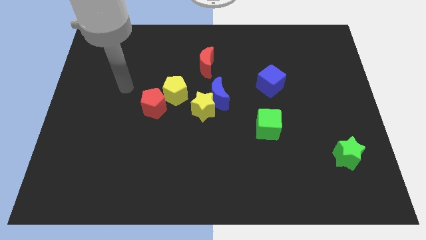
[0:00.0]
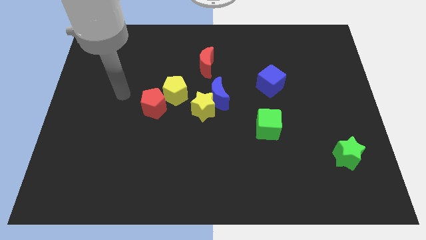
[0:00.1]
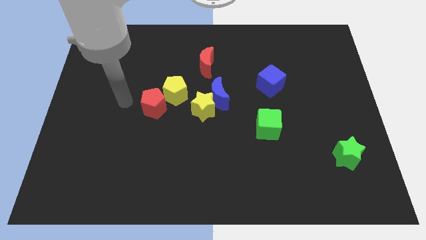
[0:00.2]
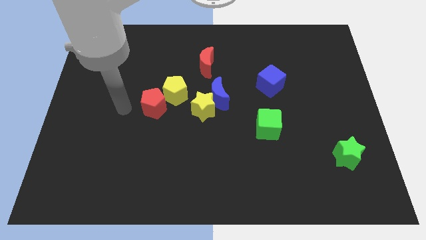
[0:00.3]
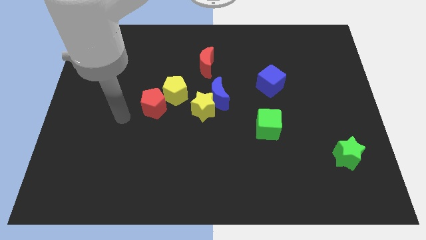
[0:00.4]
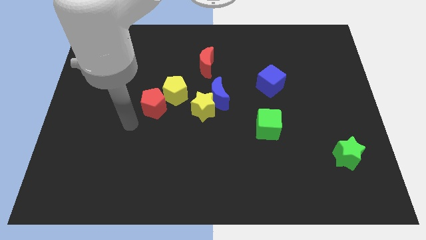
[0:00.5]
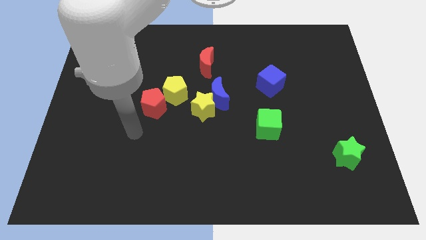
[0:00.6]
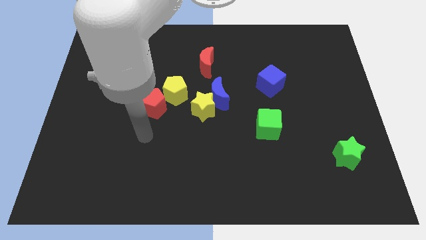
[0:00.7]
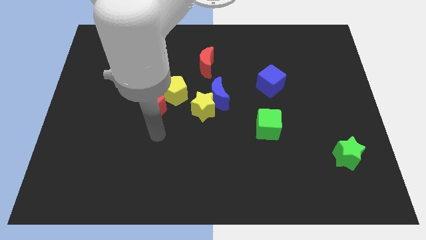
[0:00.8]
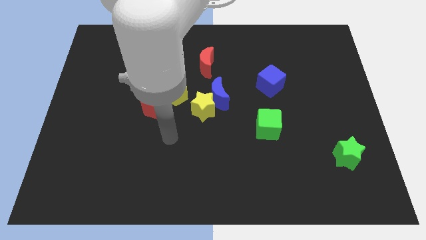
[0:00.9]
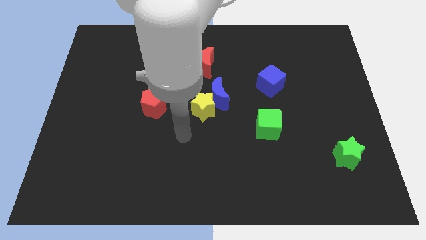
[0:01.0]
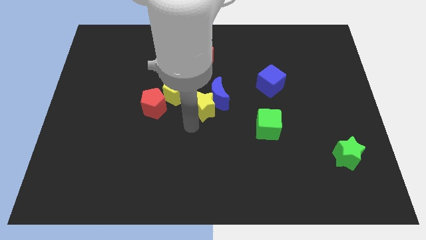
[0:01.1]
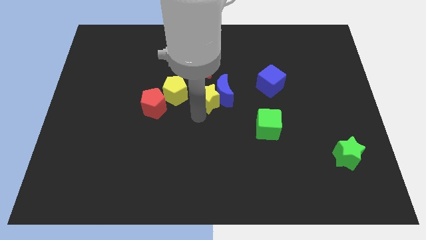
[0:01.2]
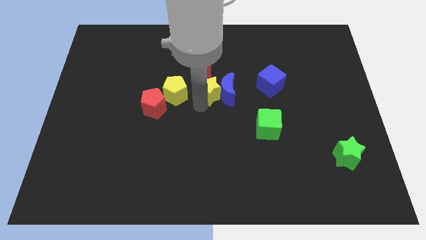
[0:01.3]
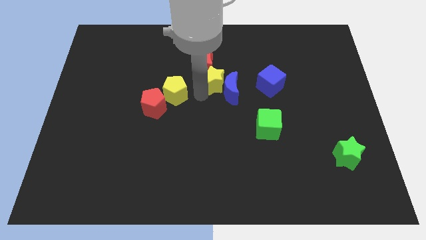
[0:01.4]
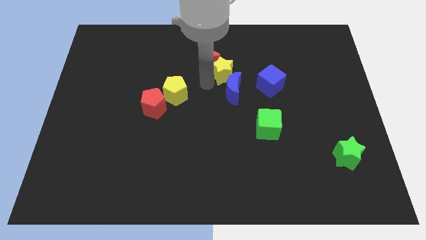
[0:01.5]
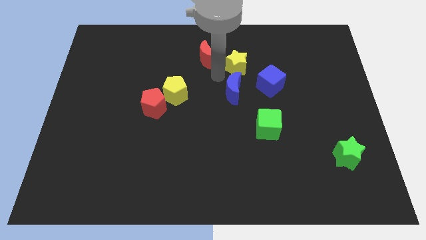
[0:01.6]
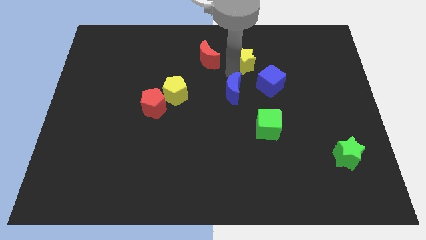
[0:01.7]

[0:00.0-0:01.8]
separate the blue moon from the yellow star

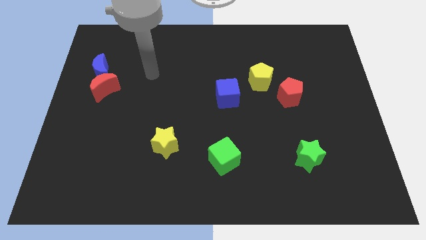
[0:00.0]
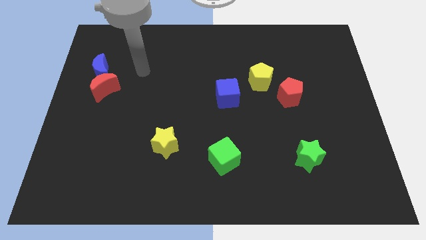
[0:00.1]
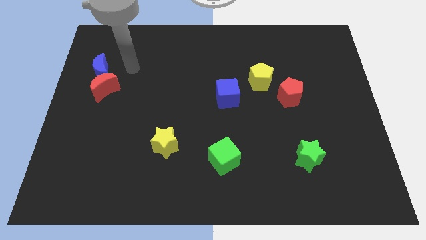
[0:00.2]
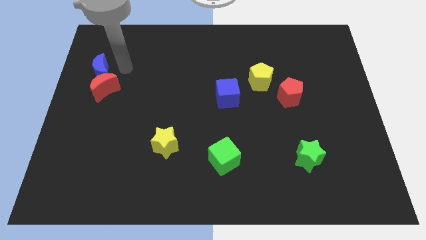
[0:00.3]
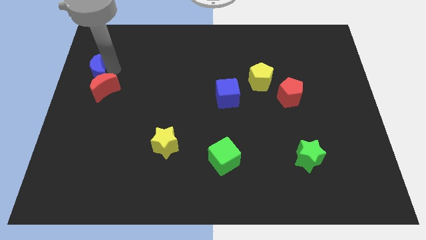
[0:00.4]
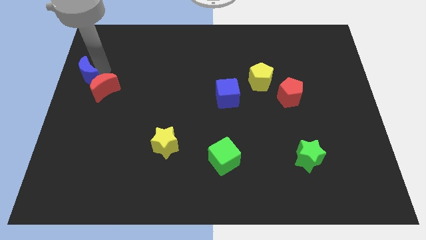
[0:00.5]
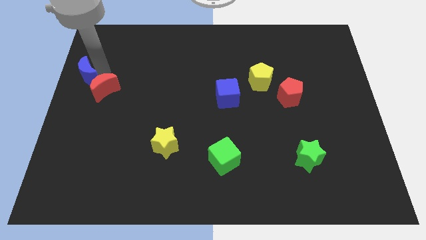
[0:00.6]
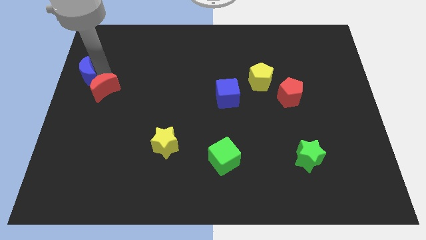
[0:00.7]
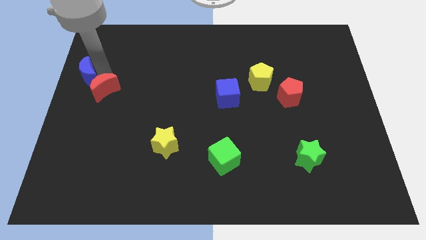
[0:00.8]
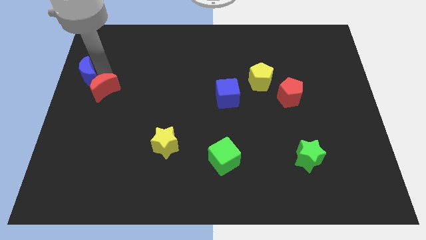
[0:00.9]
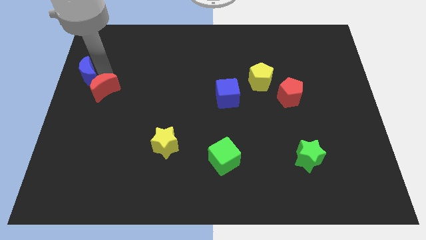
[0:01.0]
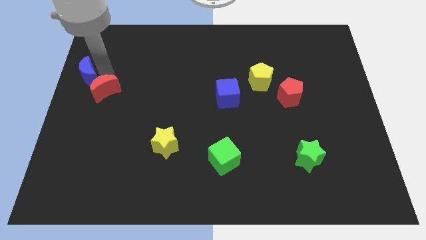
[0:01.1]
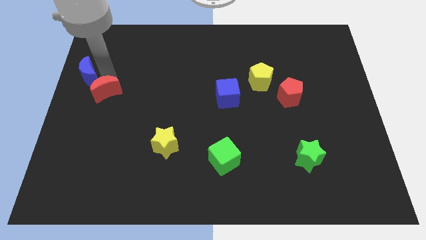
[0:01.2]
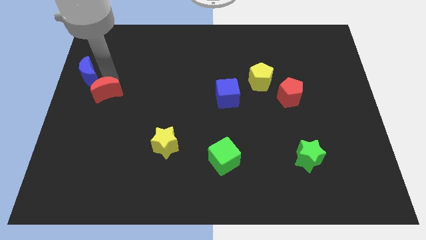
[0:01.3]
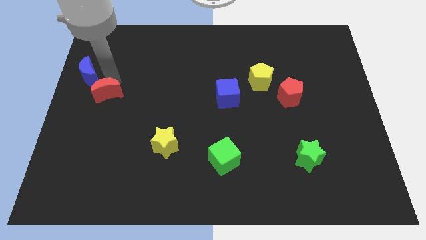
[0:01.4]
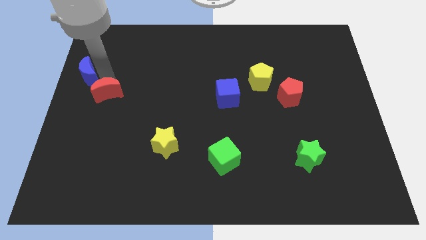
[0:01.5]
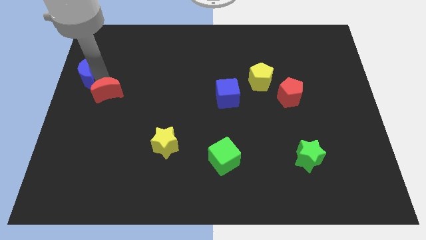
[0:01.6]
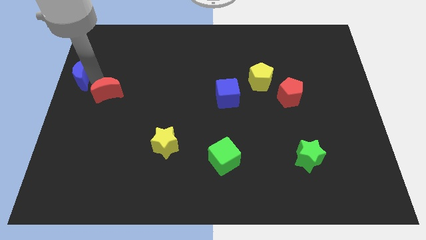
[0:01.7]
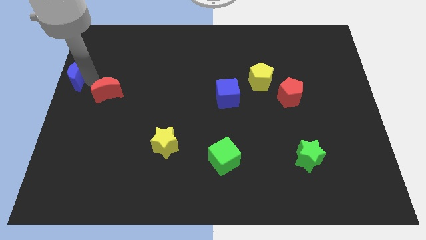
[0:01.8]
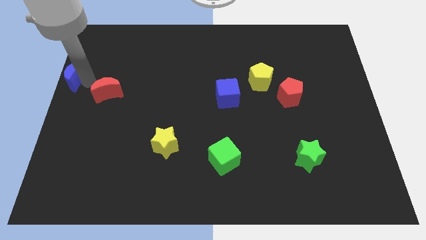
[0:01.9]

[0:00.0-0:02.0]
pull the red moon apart from the blue moon

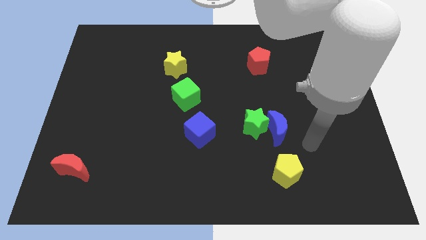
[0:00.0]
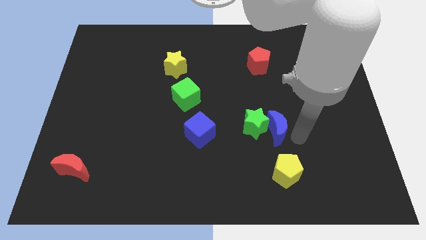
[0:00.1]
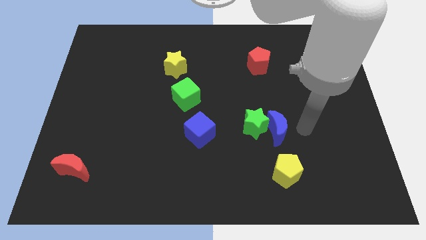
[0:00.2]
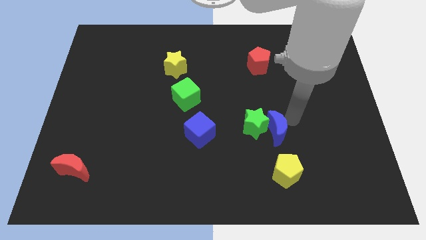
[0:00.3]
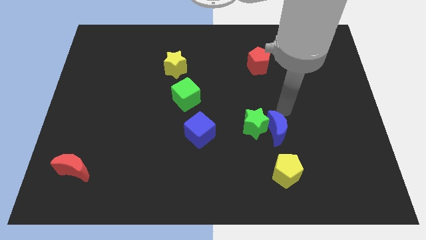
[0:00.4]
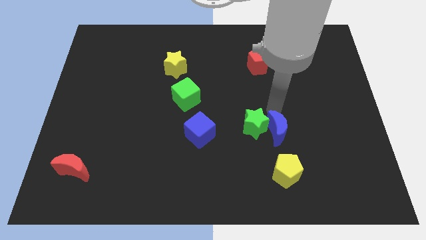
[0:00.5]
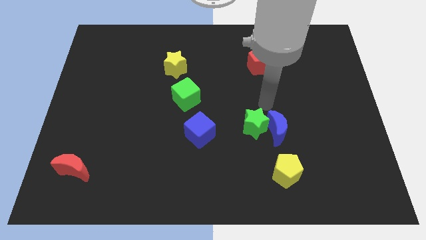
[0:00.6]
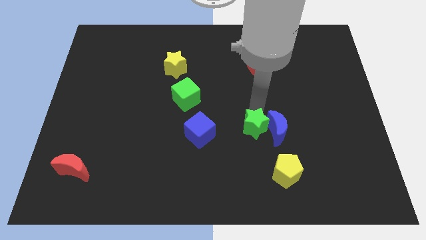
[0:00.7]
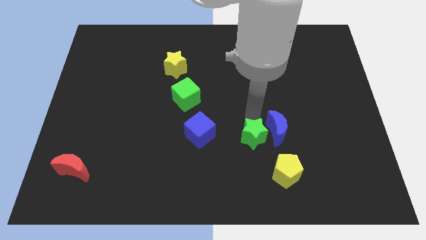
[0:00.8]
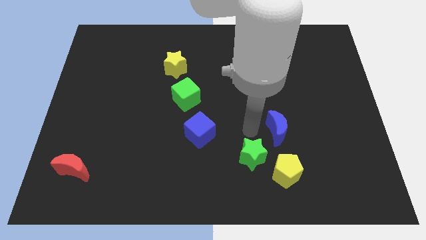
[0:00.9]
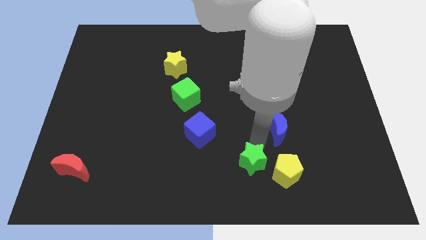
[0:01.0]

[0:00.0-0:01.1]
pull the blue moon apart from the green star

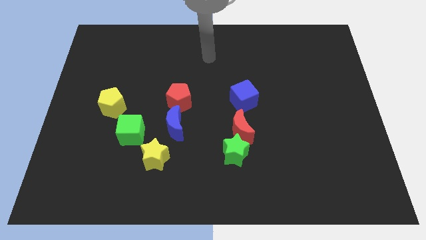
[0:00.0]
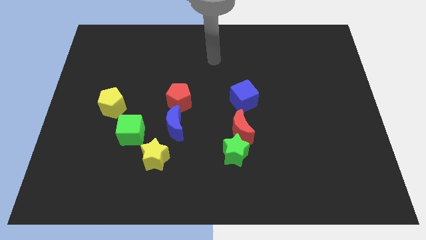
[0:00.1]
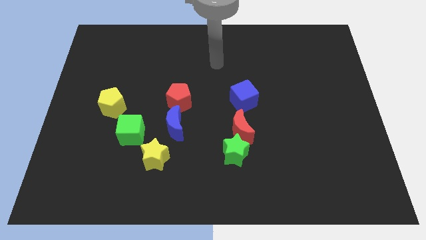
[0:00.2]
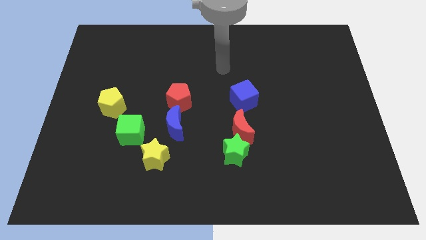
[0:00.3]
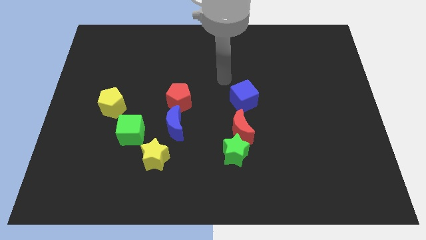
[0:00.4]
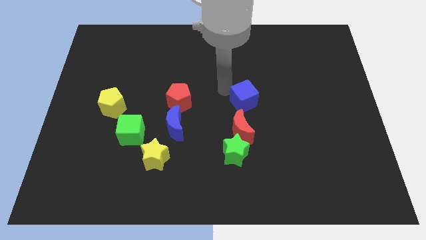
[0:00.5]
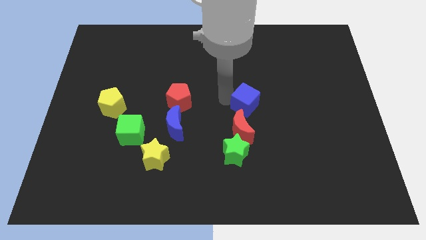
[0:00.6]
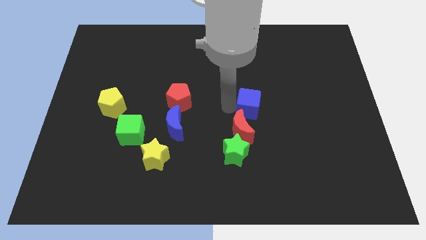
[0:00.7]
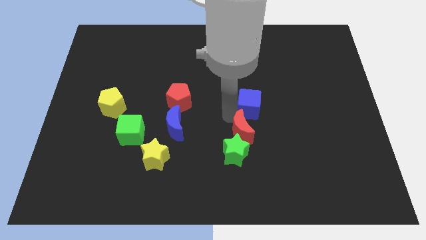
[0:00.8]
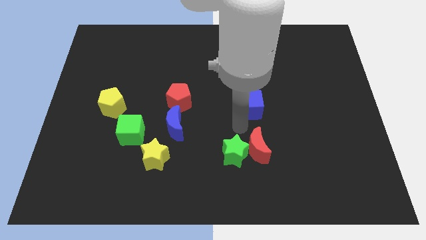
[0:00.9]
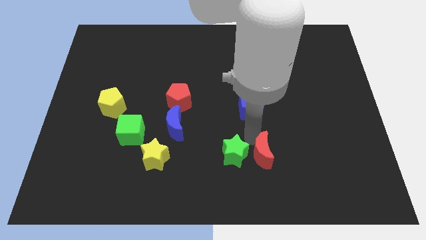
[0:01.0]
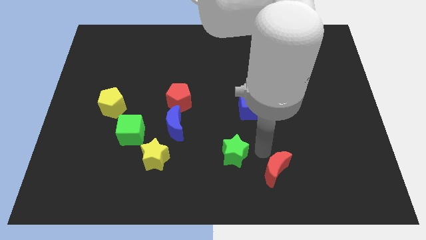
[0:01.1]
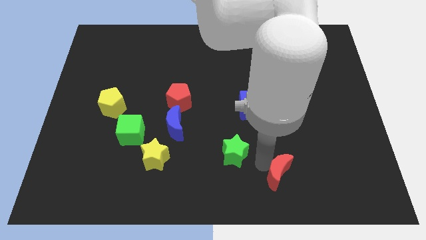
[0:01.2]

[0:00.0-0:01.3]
pull the green star apart from the red moon

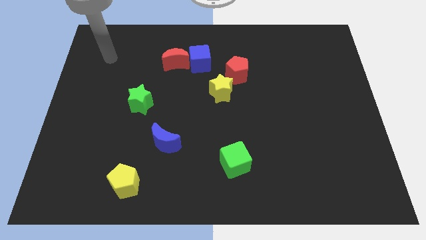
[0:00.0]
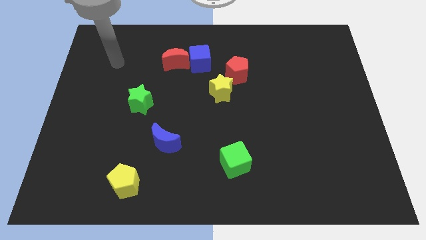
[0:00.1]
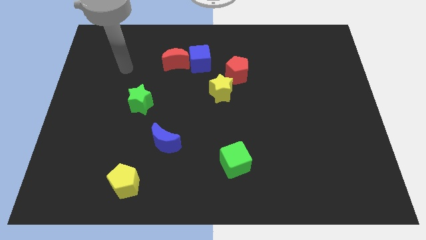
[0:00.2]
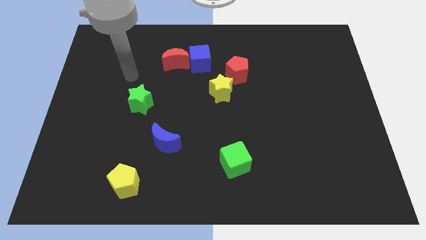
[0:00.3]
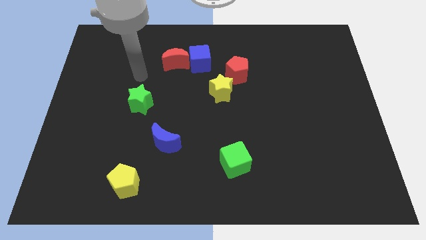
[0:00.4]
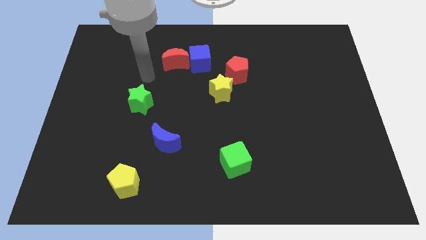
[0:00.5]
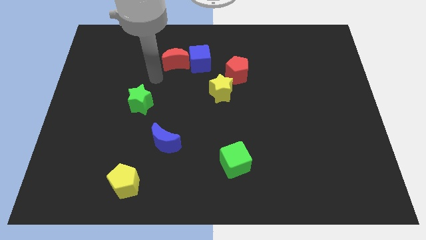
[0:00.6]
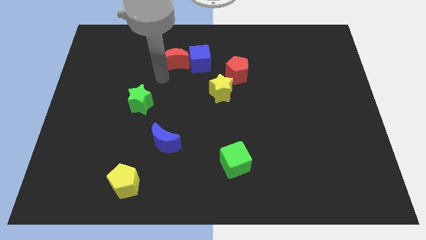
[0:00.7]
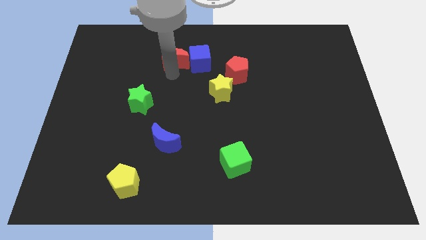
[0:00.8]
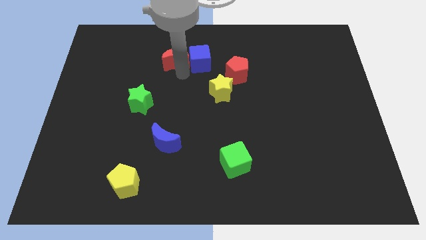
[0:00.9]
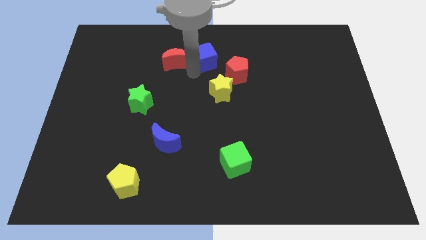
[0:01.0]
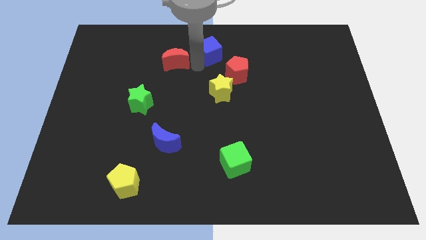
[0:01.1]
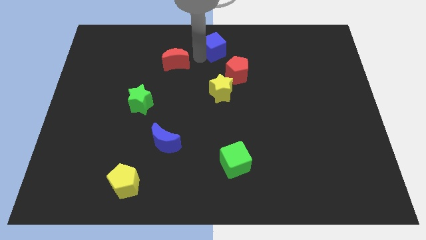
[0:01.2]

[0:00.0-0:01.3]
separate the red moon from the blue cube

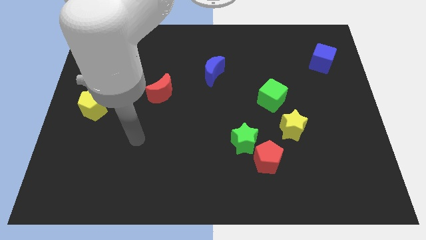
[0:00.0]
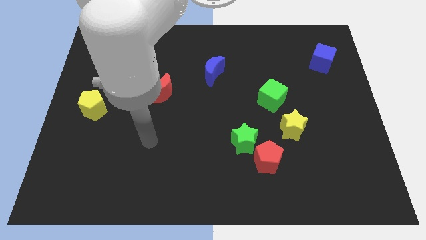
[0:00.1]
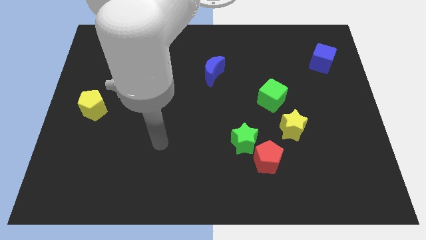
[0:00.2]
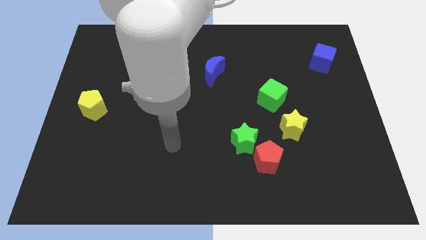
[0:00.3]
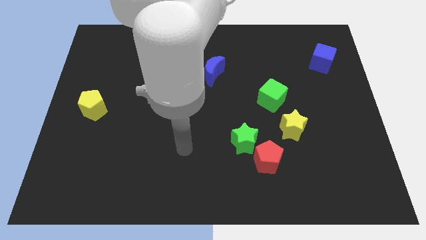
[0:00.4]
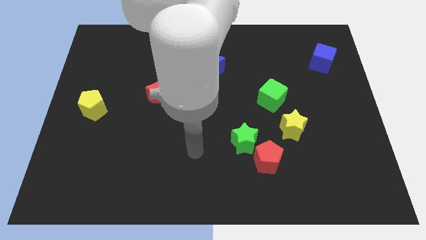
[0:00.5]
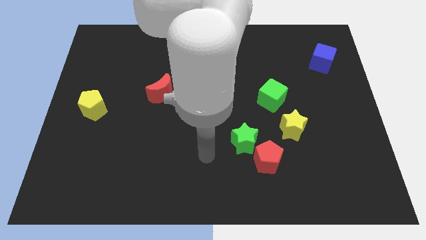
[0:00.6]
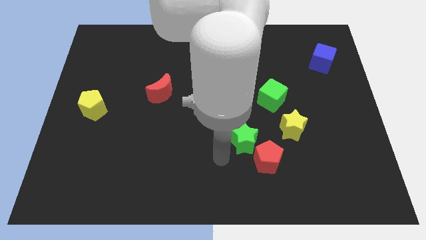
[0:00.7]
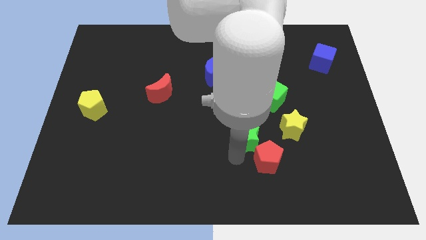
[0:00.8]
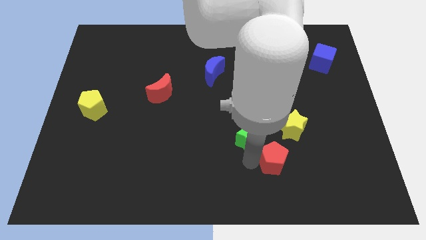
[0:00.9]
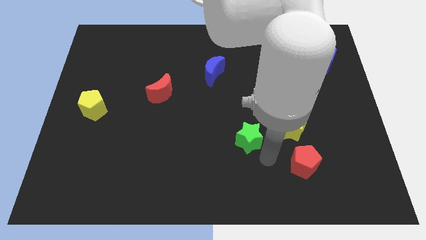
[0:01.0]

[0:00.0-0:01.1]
separate the green star from the red pentagon

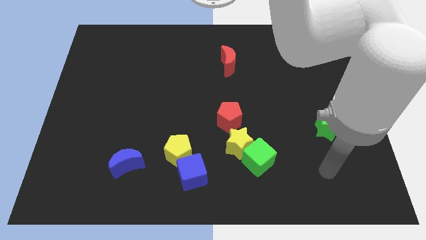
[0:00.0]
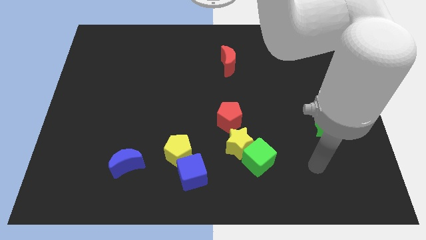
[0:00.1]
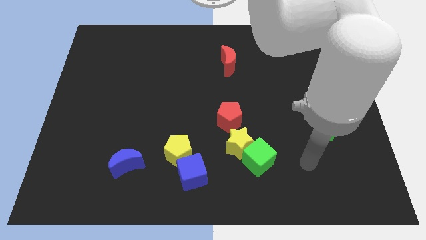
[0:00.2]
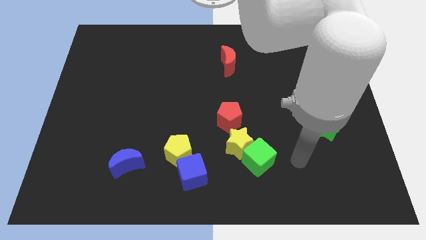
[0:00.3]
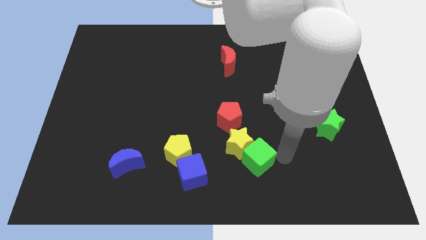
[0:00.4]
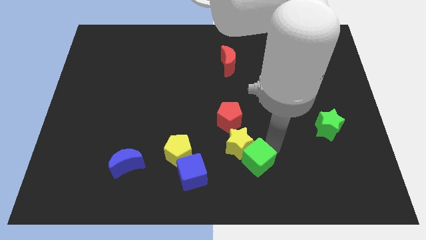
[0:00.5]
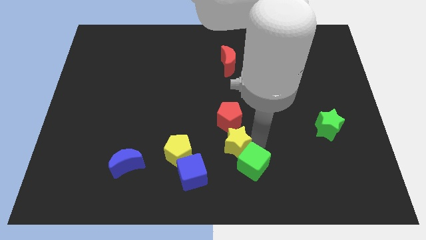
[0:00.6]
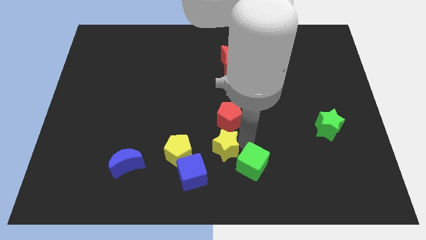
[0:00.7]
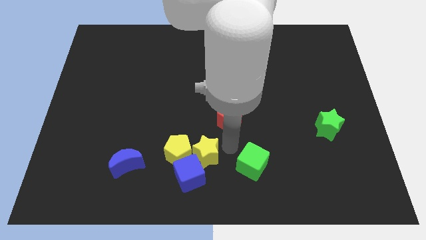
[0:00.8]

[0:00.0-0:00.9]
move the green cube away from the yellow star

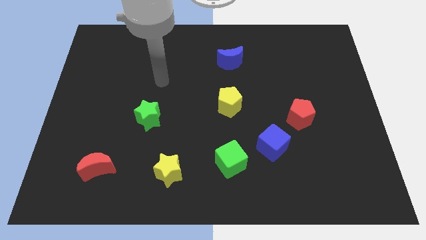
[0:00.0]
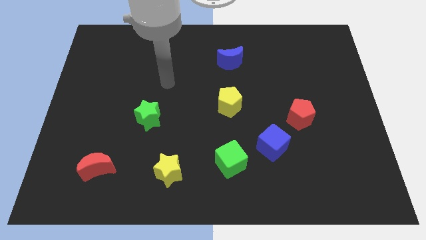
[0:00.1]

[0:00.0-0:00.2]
pull the green cube apart from the blue cube
